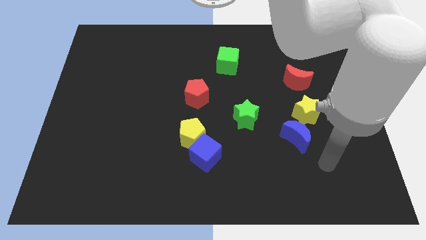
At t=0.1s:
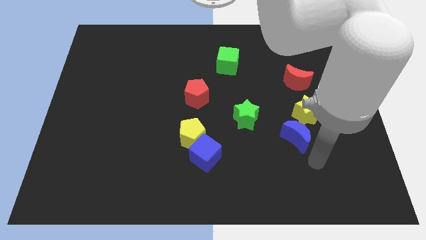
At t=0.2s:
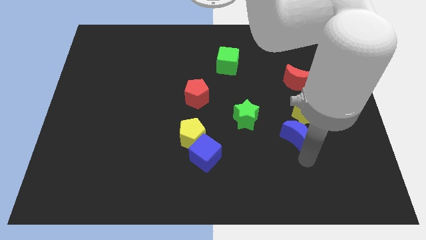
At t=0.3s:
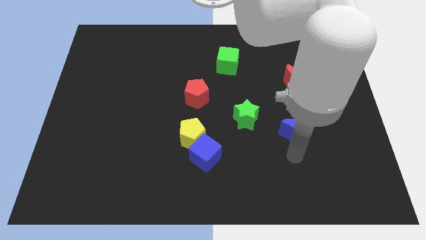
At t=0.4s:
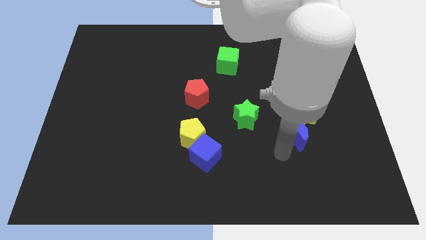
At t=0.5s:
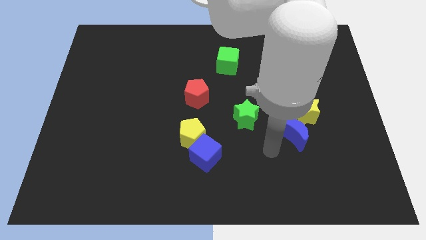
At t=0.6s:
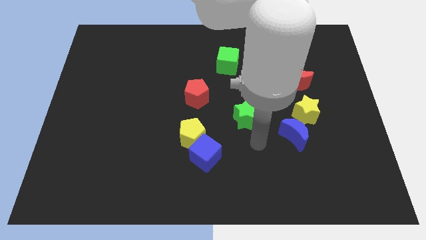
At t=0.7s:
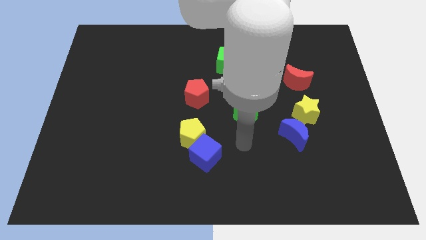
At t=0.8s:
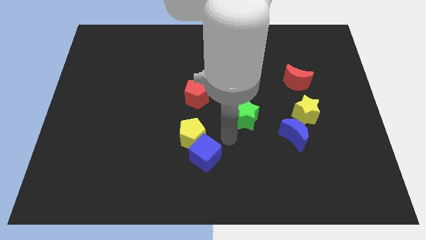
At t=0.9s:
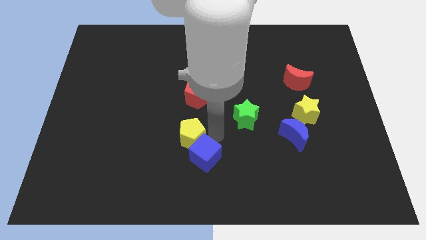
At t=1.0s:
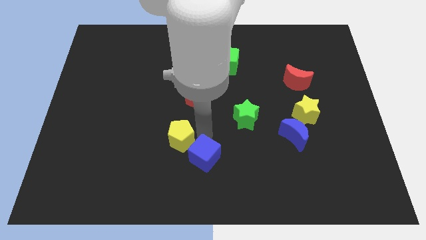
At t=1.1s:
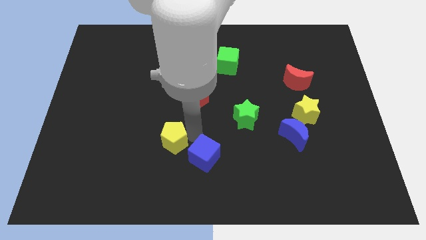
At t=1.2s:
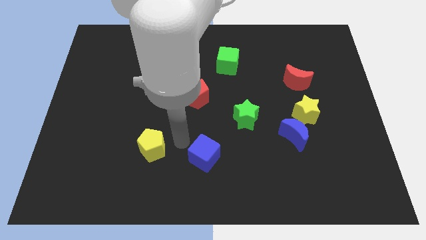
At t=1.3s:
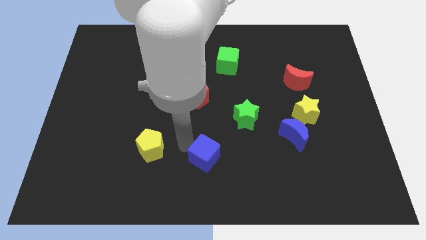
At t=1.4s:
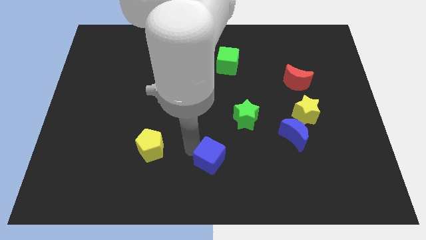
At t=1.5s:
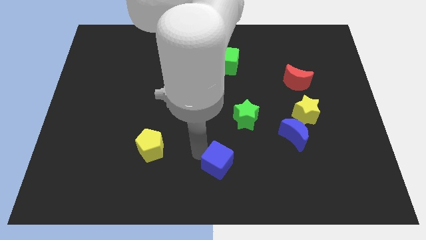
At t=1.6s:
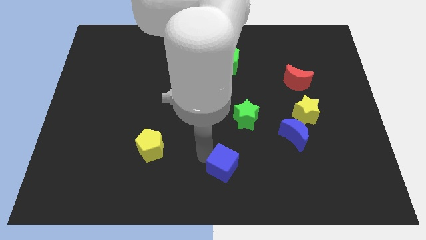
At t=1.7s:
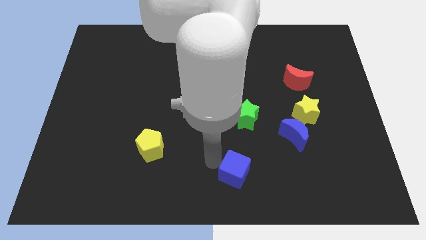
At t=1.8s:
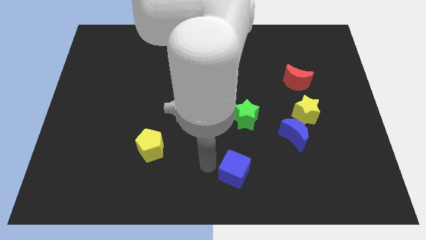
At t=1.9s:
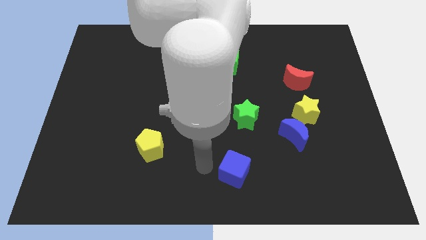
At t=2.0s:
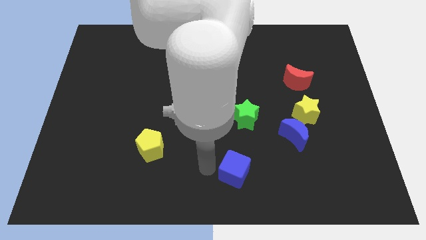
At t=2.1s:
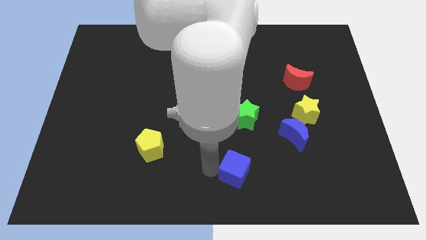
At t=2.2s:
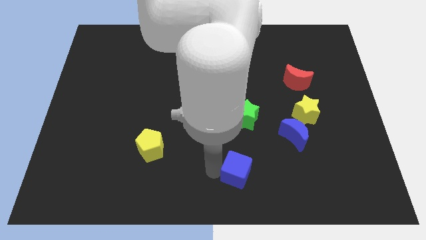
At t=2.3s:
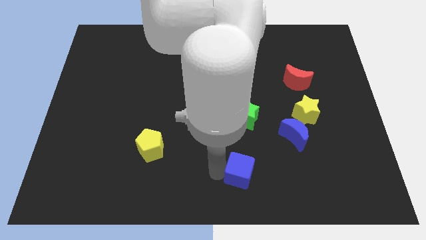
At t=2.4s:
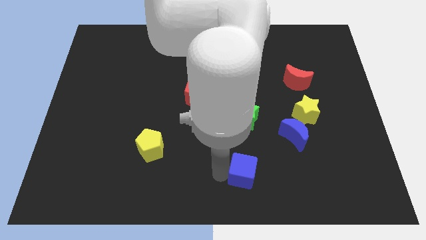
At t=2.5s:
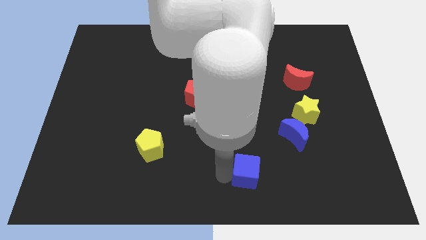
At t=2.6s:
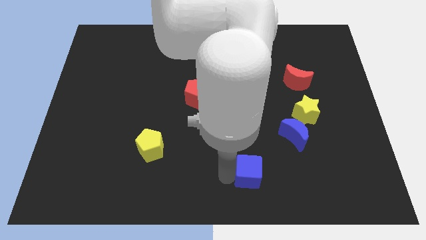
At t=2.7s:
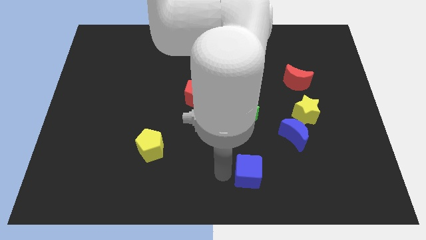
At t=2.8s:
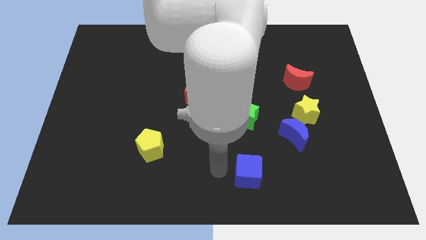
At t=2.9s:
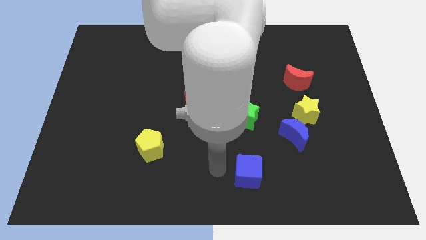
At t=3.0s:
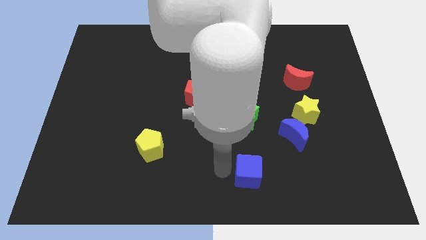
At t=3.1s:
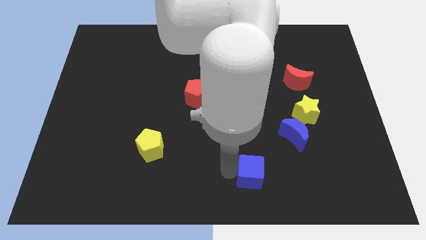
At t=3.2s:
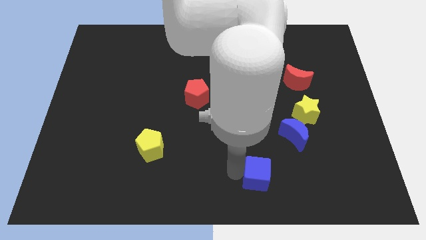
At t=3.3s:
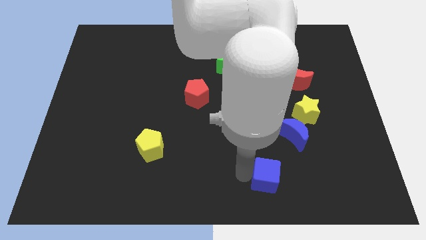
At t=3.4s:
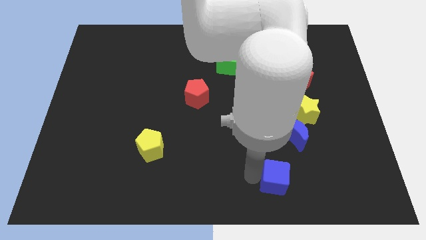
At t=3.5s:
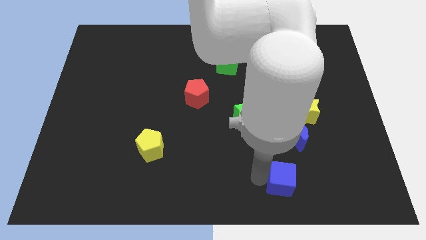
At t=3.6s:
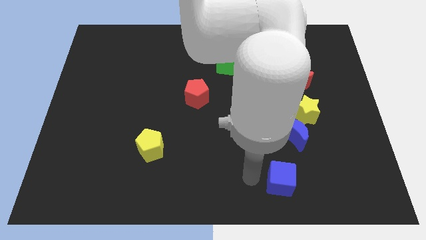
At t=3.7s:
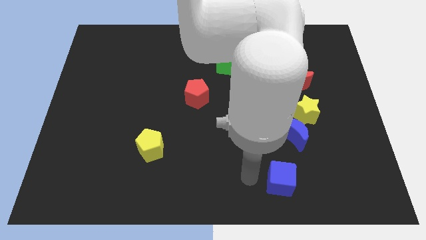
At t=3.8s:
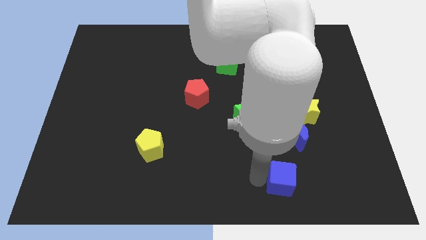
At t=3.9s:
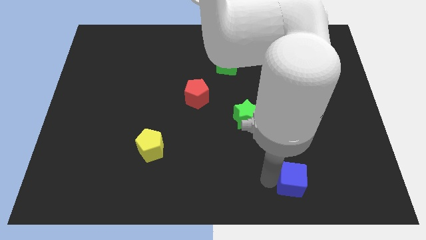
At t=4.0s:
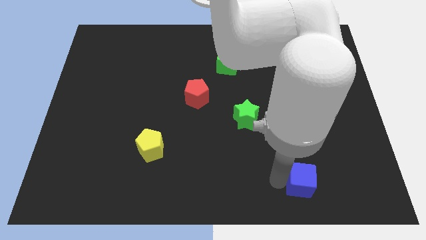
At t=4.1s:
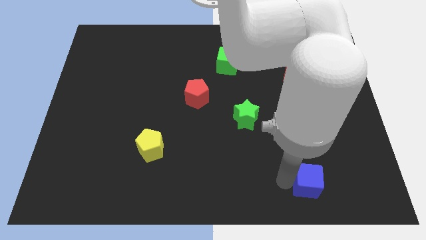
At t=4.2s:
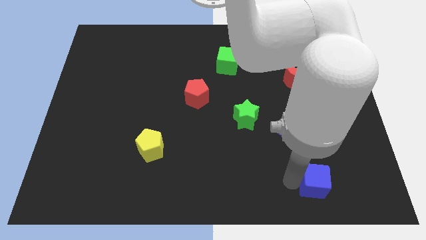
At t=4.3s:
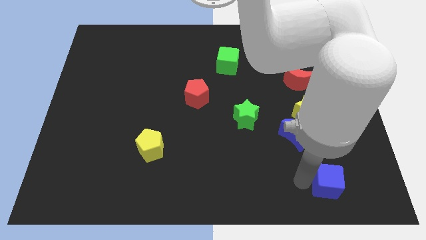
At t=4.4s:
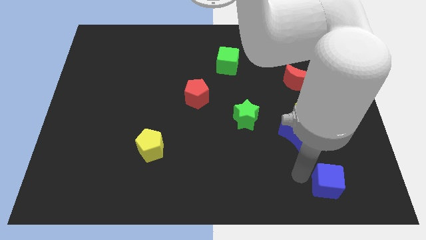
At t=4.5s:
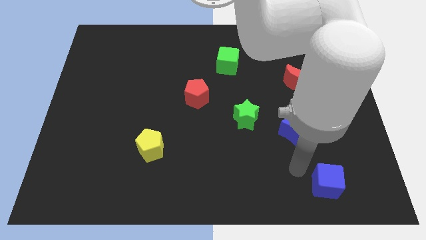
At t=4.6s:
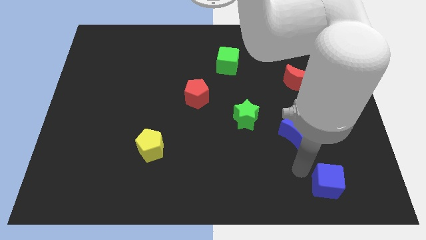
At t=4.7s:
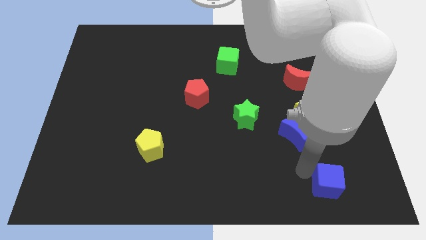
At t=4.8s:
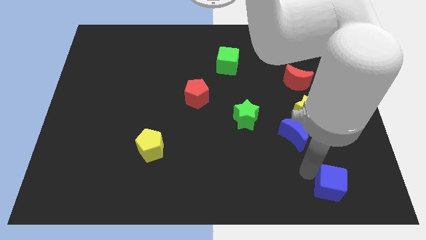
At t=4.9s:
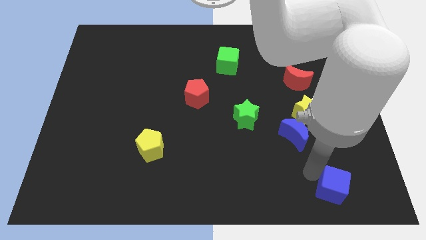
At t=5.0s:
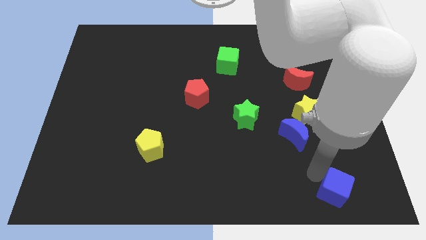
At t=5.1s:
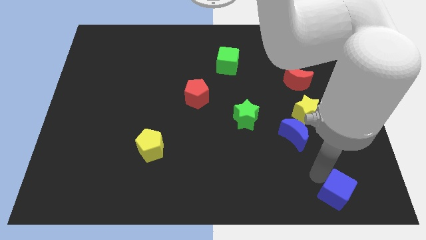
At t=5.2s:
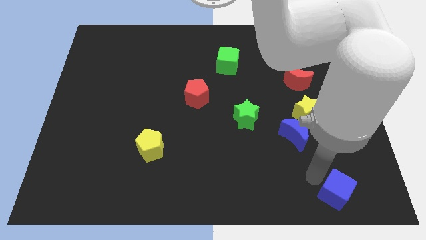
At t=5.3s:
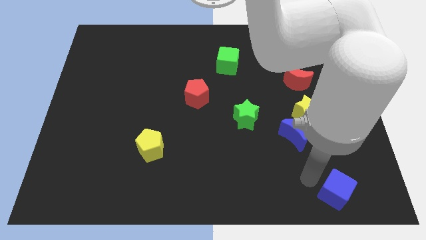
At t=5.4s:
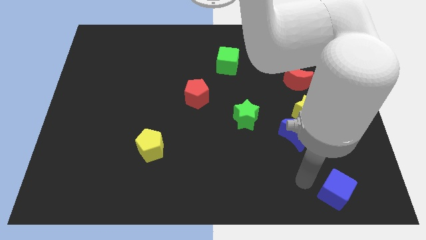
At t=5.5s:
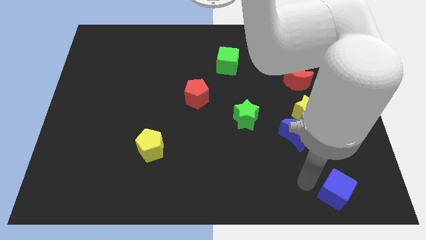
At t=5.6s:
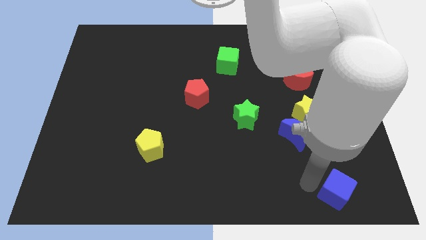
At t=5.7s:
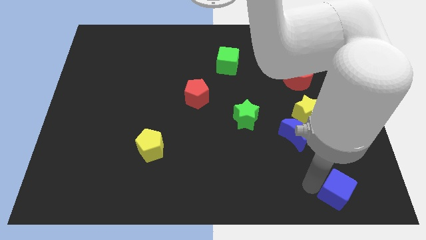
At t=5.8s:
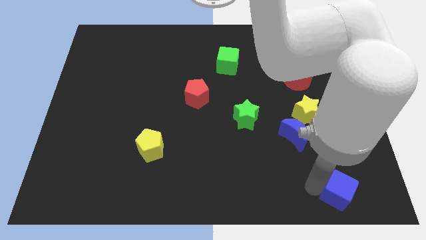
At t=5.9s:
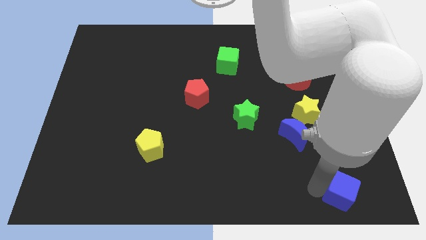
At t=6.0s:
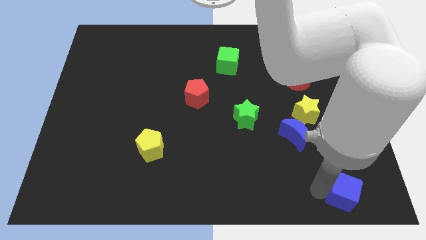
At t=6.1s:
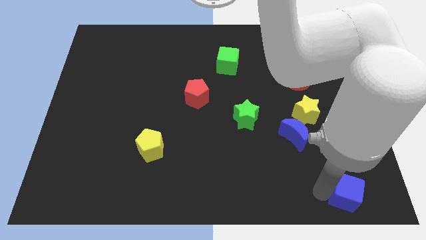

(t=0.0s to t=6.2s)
slide the blue cube to the lower right corner

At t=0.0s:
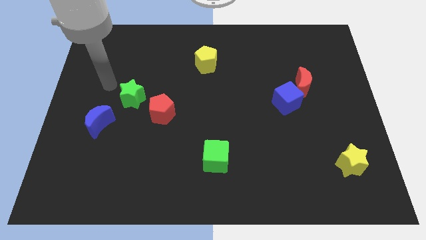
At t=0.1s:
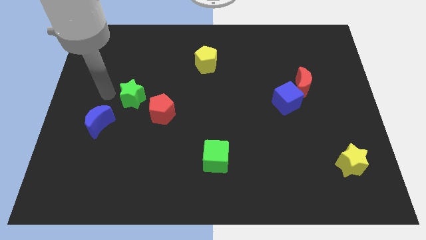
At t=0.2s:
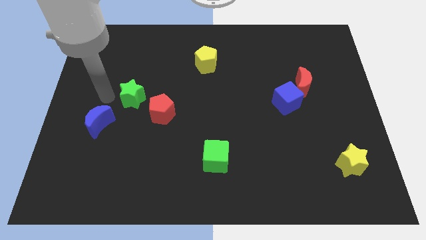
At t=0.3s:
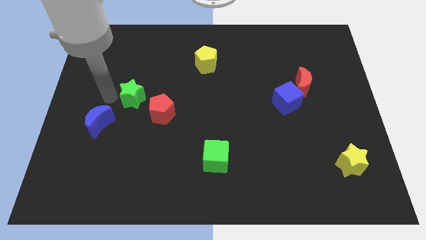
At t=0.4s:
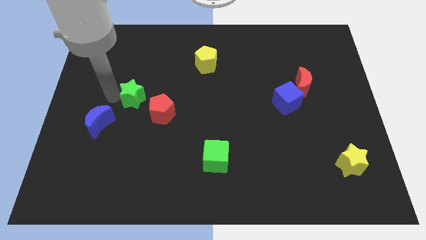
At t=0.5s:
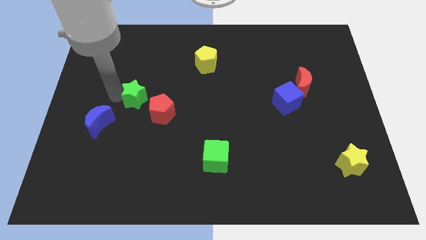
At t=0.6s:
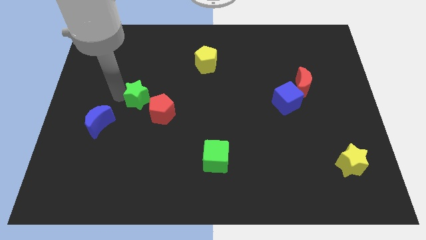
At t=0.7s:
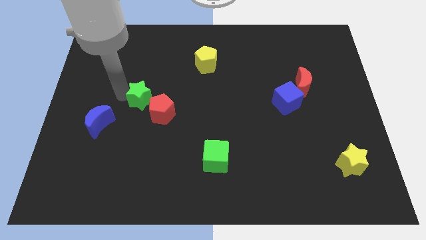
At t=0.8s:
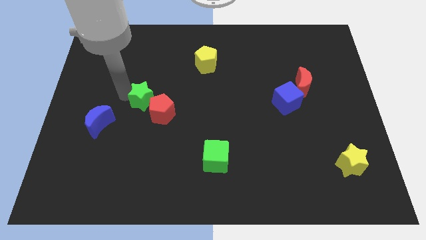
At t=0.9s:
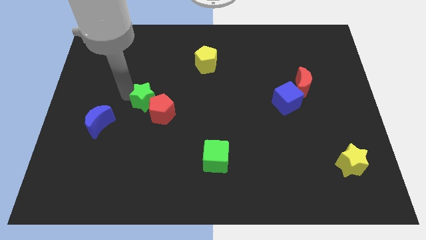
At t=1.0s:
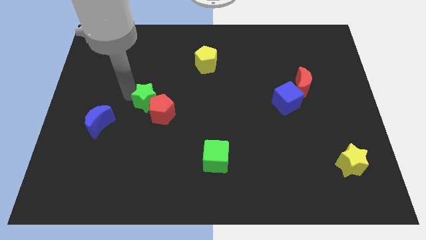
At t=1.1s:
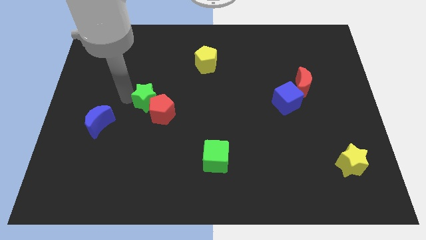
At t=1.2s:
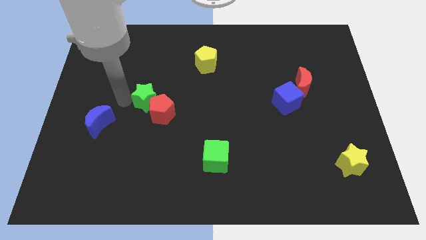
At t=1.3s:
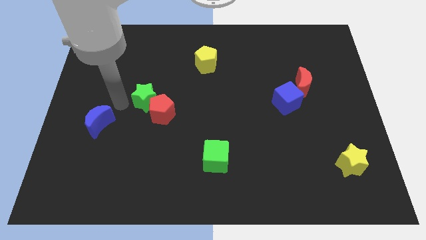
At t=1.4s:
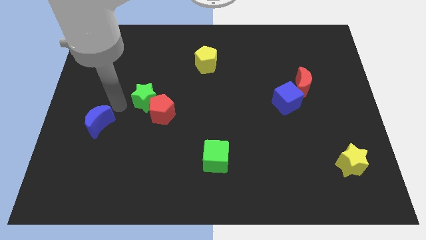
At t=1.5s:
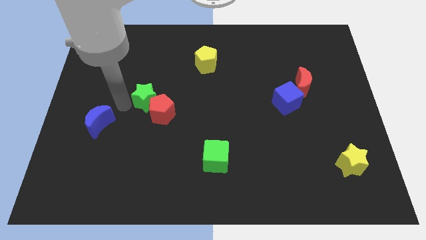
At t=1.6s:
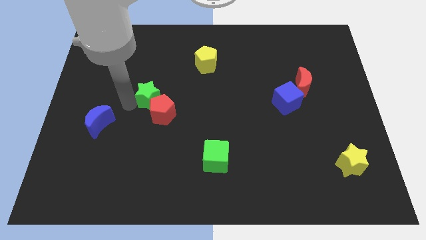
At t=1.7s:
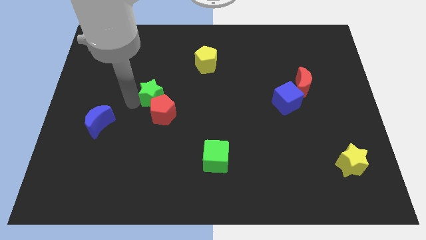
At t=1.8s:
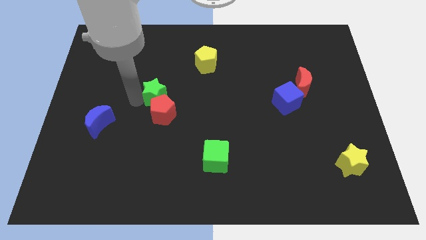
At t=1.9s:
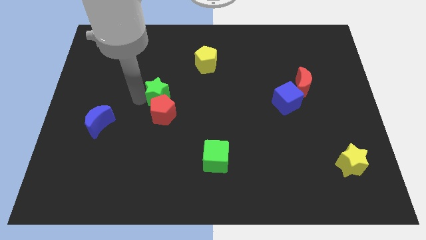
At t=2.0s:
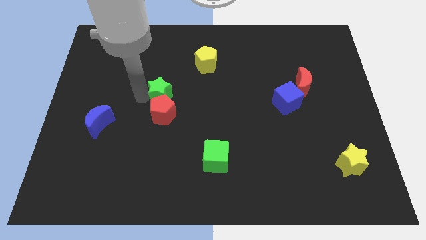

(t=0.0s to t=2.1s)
move the green star to the center
